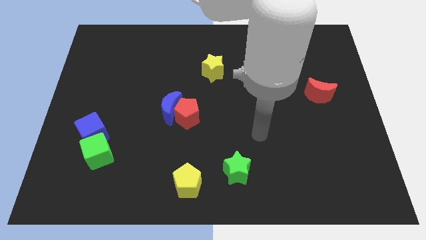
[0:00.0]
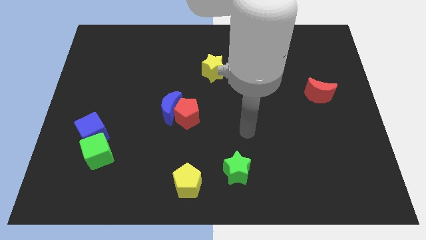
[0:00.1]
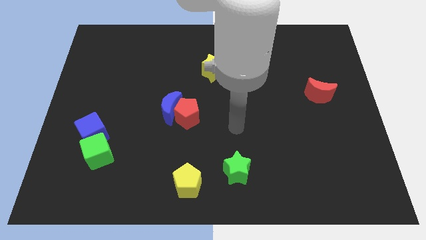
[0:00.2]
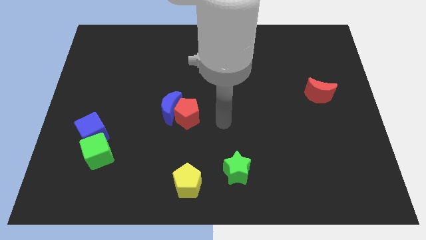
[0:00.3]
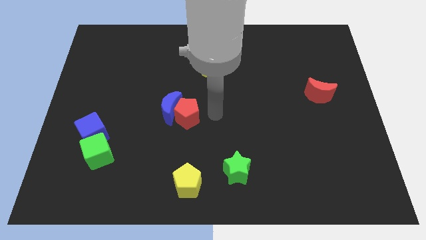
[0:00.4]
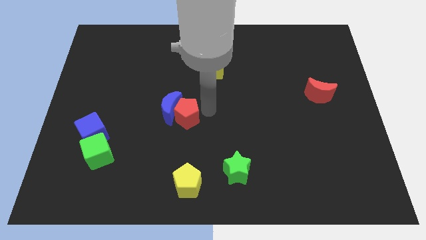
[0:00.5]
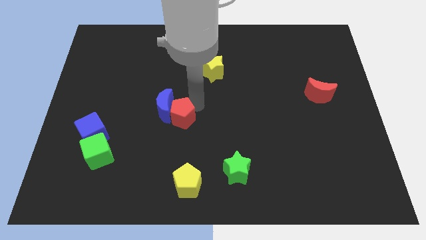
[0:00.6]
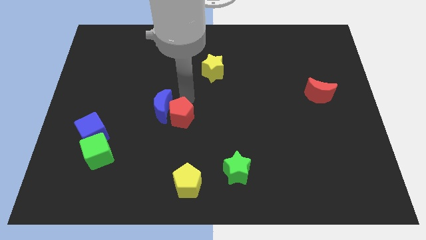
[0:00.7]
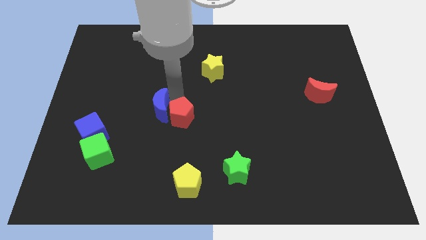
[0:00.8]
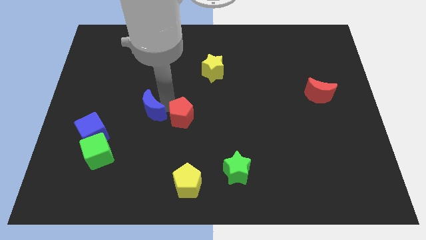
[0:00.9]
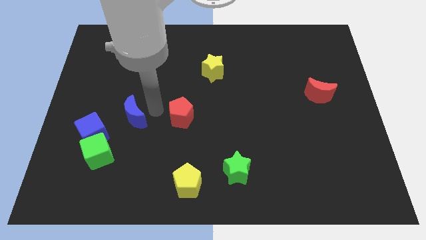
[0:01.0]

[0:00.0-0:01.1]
separate the red pentagon from the blue moon

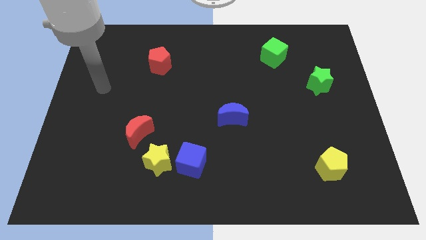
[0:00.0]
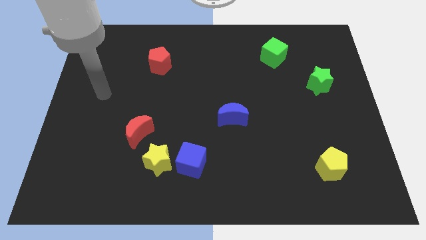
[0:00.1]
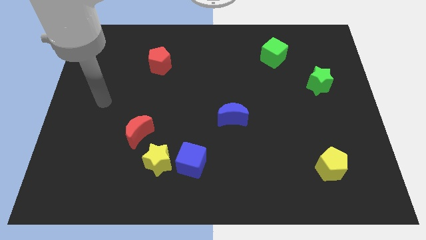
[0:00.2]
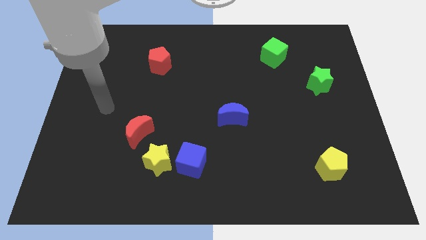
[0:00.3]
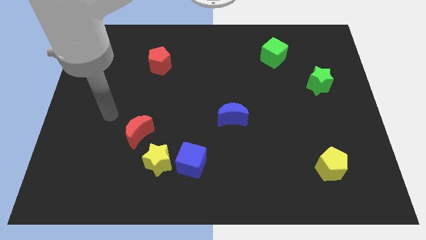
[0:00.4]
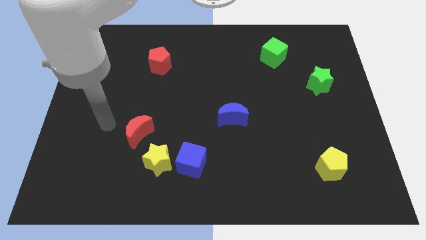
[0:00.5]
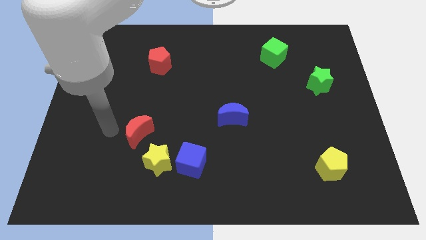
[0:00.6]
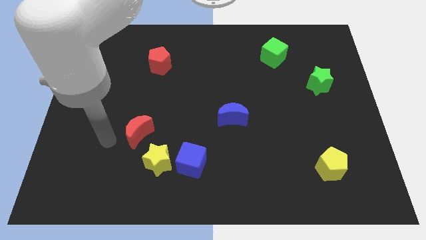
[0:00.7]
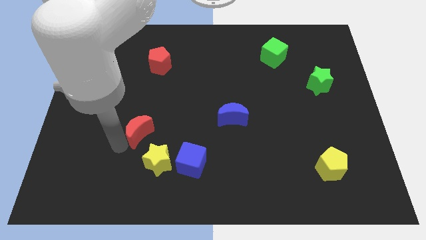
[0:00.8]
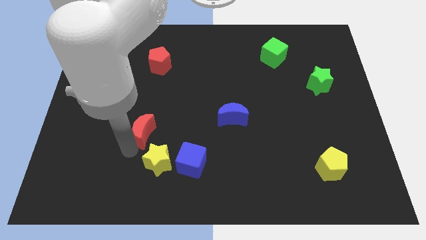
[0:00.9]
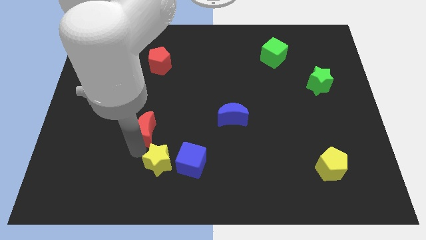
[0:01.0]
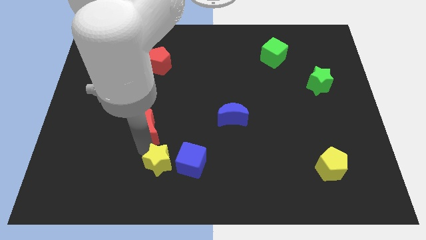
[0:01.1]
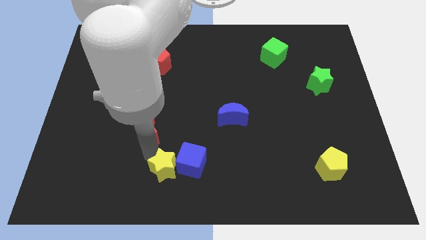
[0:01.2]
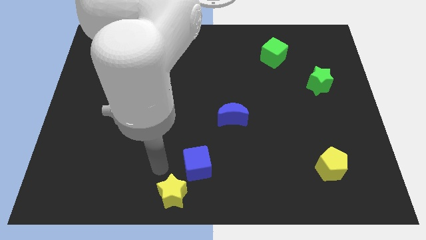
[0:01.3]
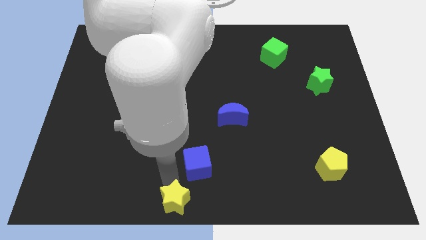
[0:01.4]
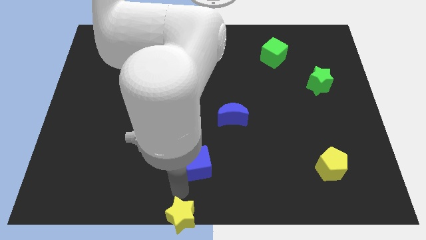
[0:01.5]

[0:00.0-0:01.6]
move the blue cube away from the yellow star

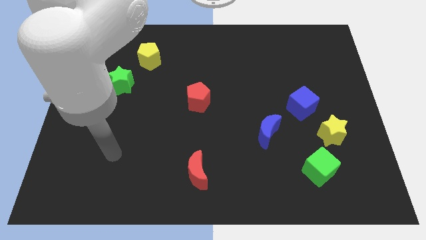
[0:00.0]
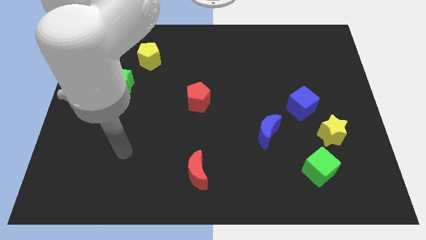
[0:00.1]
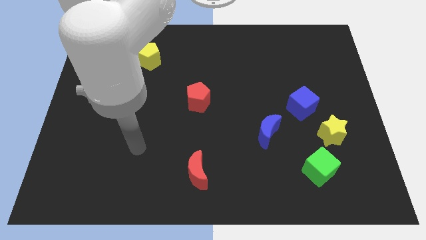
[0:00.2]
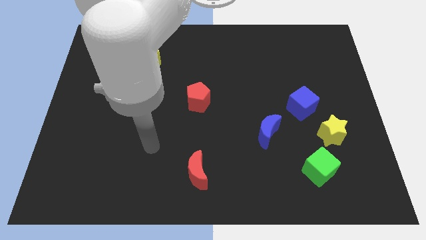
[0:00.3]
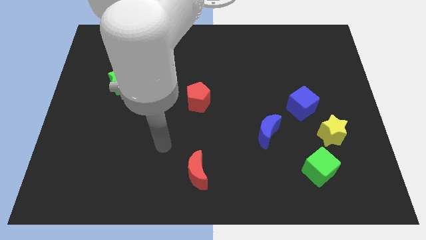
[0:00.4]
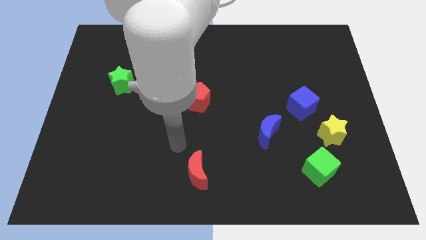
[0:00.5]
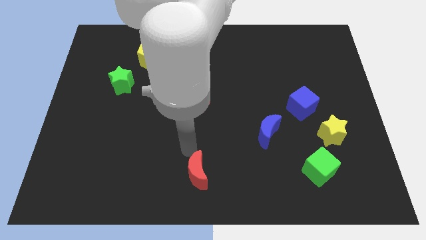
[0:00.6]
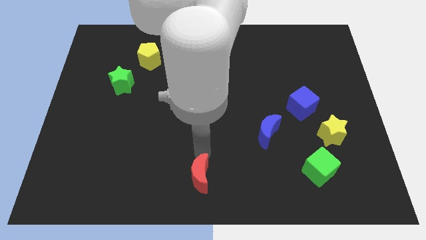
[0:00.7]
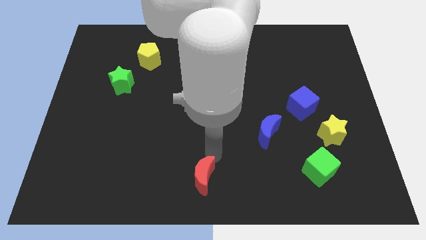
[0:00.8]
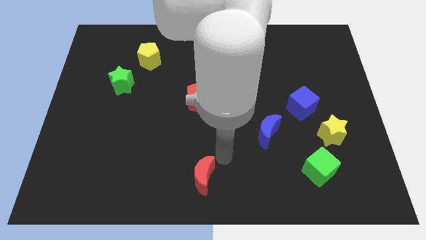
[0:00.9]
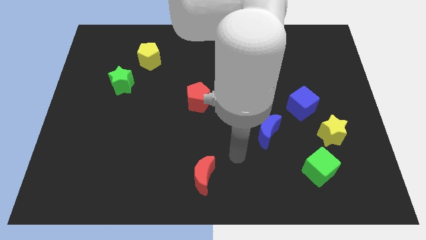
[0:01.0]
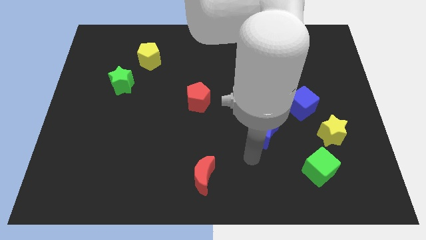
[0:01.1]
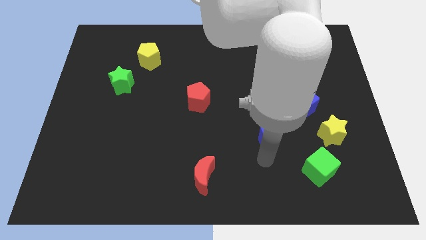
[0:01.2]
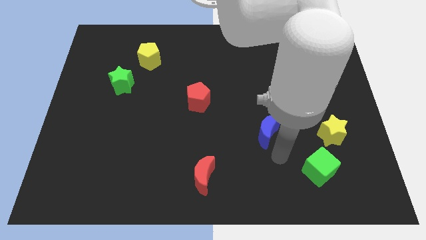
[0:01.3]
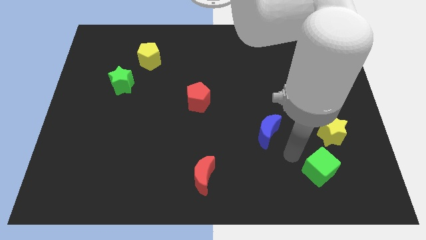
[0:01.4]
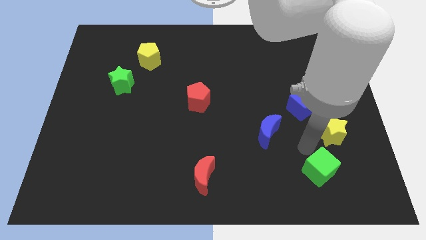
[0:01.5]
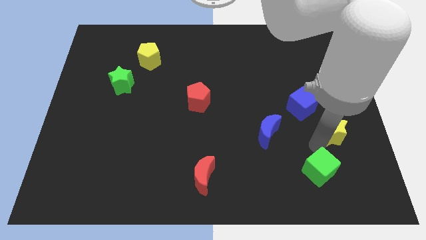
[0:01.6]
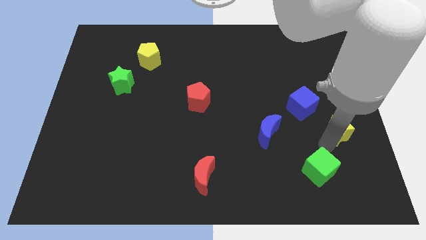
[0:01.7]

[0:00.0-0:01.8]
move the green cube away from the yellow star

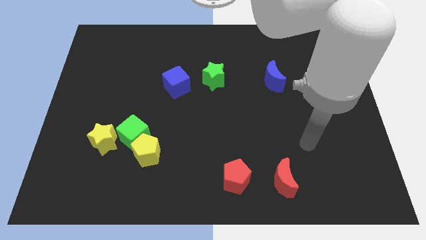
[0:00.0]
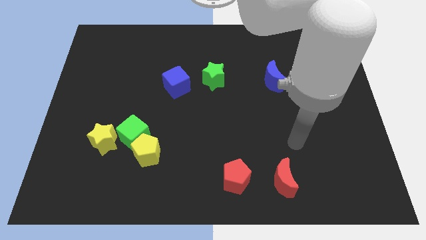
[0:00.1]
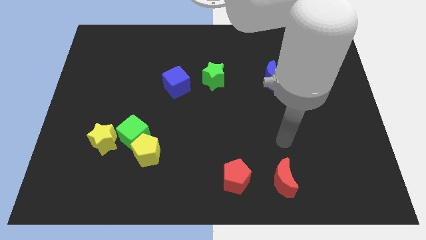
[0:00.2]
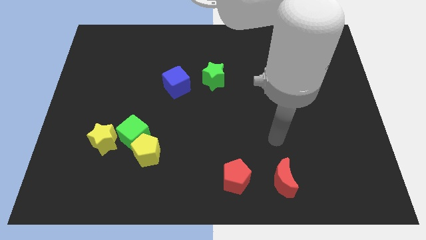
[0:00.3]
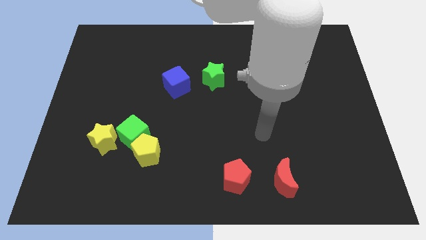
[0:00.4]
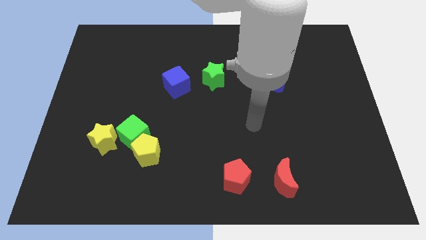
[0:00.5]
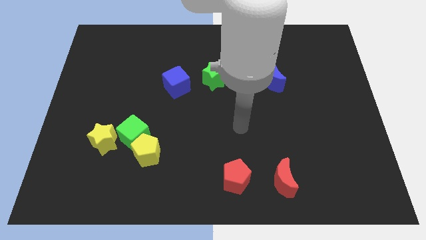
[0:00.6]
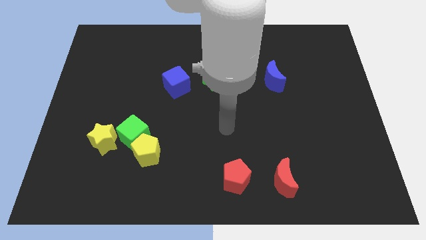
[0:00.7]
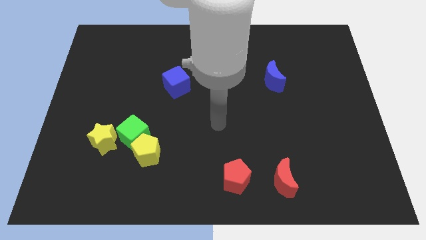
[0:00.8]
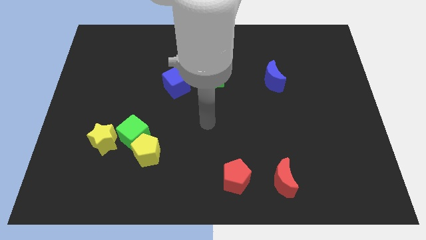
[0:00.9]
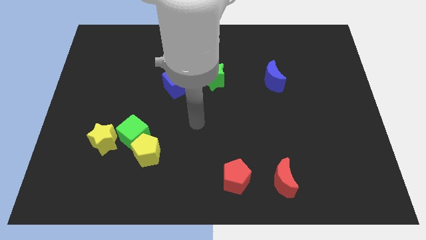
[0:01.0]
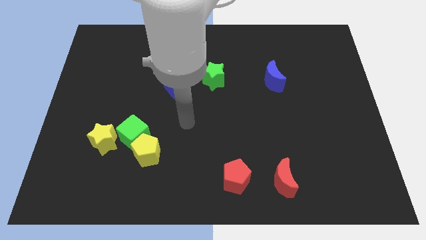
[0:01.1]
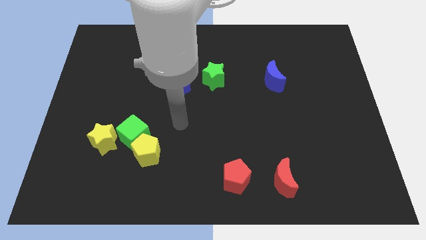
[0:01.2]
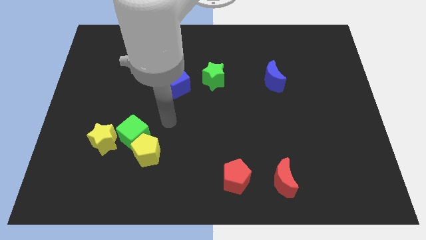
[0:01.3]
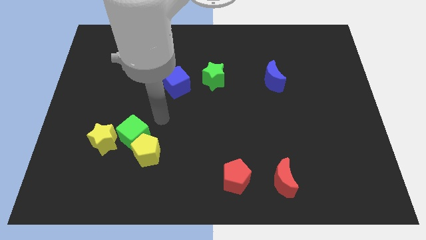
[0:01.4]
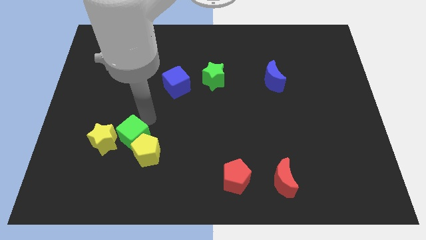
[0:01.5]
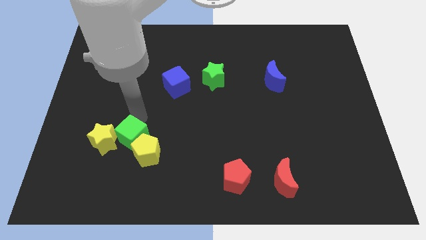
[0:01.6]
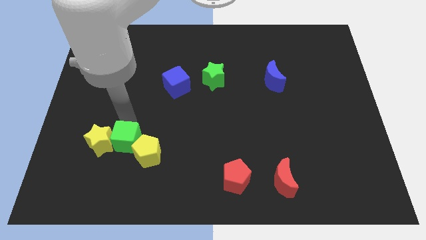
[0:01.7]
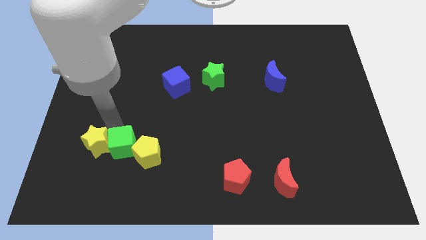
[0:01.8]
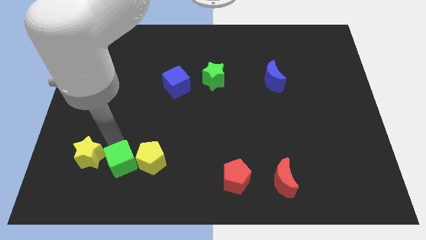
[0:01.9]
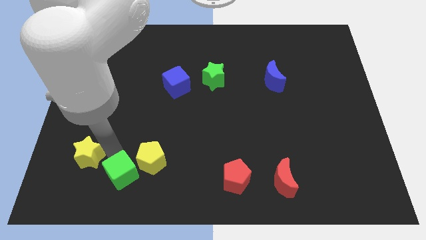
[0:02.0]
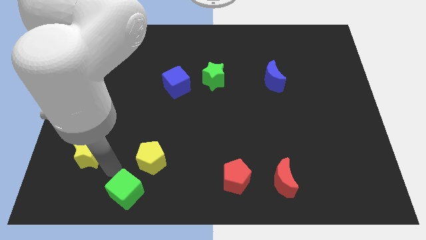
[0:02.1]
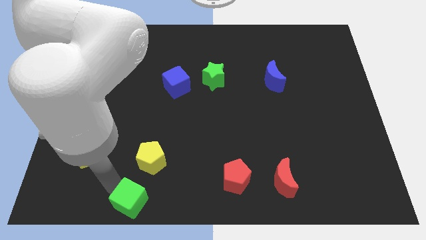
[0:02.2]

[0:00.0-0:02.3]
pull the green cube apart from the yellow pentagon and yellow star

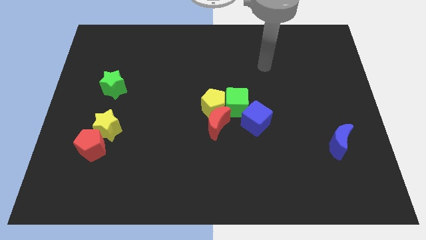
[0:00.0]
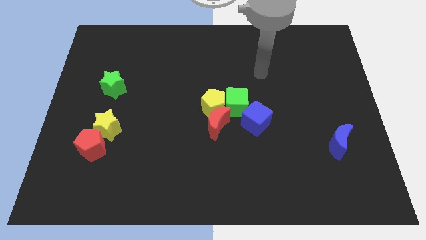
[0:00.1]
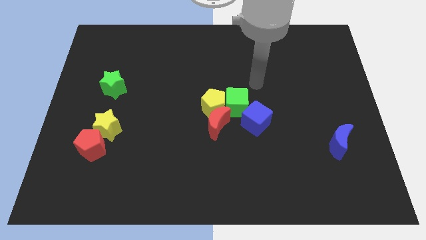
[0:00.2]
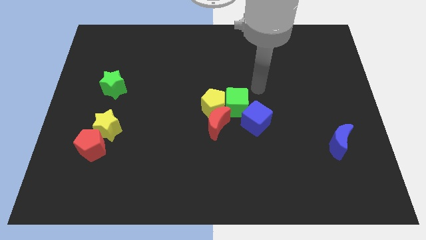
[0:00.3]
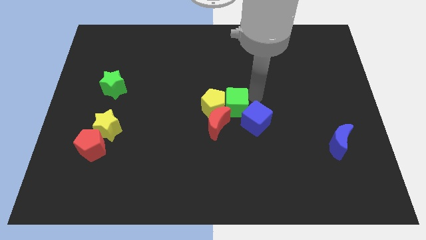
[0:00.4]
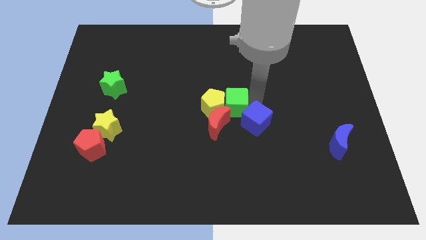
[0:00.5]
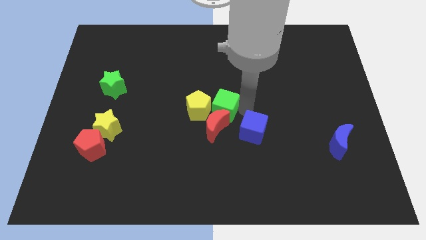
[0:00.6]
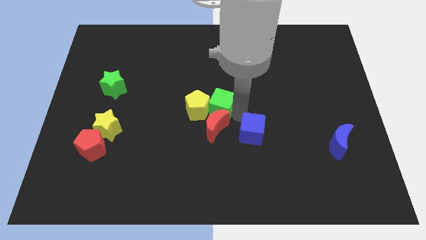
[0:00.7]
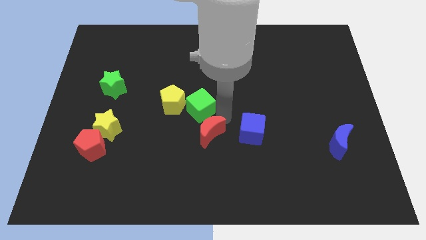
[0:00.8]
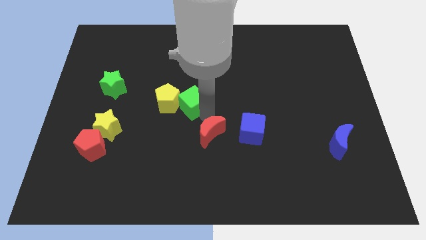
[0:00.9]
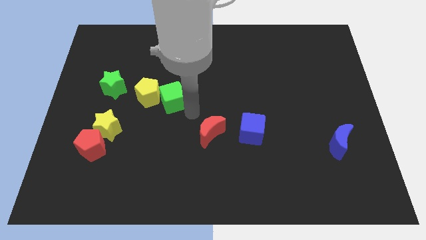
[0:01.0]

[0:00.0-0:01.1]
pull the yellow pentagon apart from the red moon and green cube

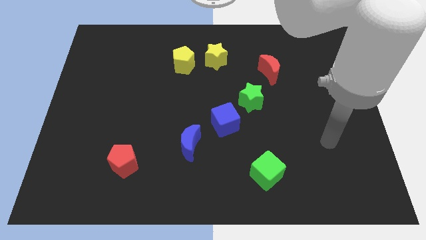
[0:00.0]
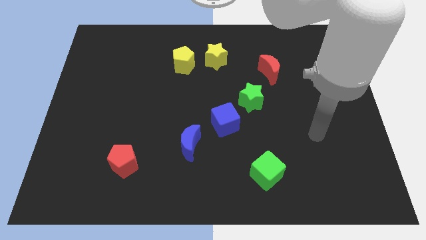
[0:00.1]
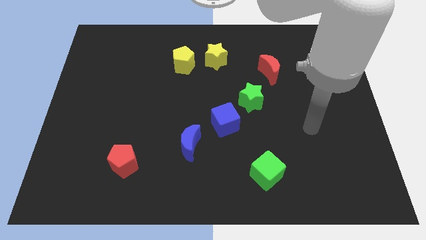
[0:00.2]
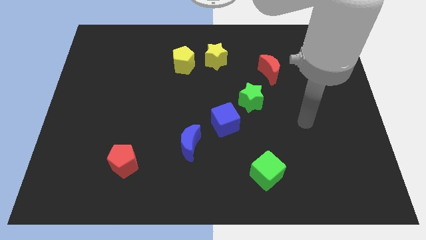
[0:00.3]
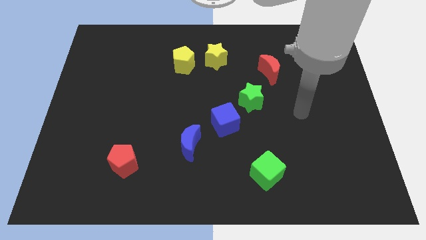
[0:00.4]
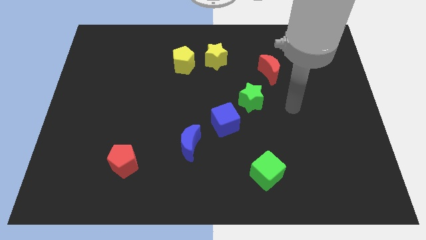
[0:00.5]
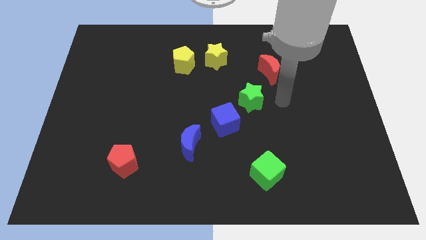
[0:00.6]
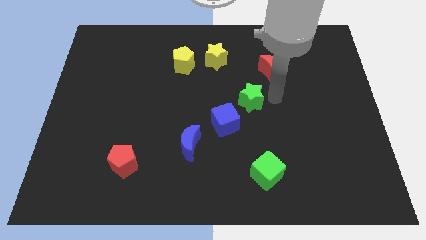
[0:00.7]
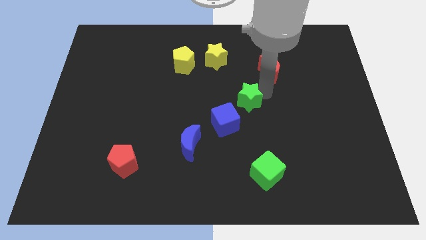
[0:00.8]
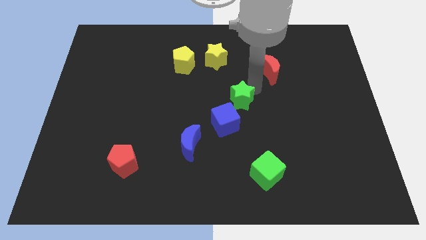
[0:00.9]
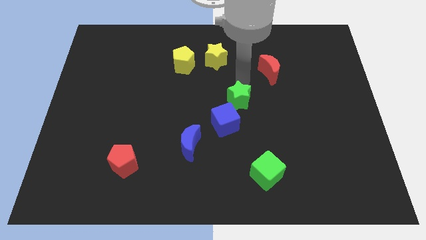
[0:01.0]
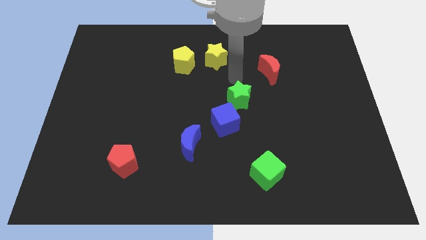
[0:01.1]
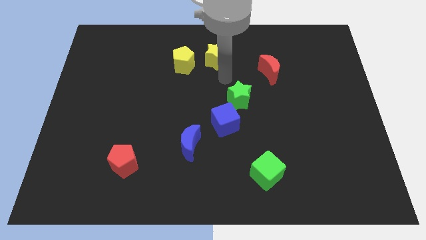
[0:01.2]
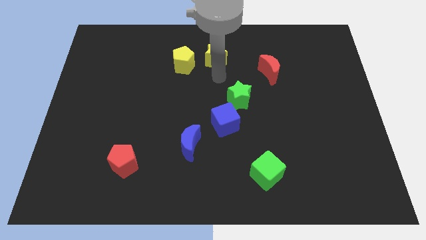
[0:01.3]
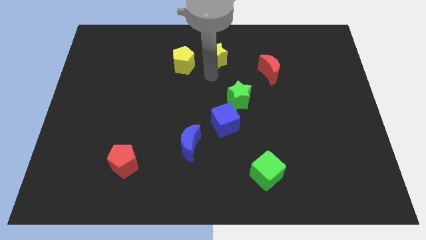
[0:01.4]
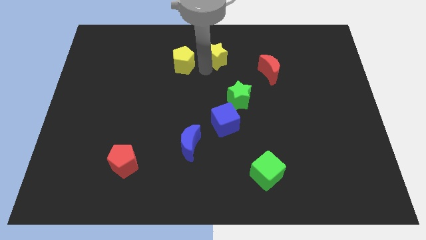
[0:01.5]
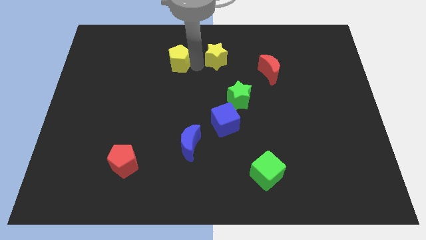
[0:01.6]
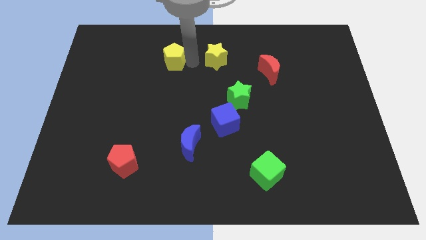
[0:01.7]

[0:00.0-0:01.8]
move the yellow star away from the yellow pentagon
